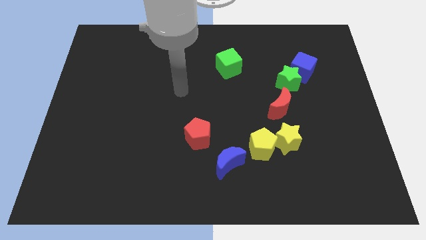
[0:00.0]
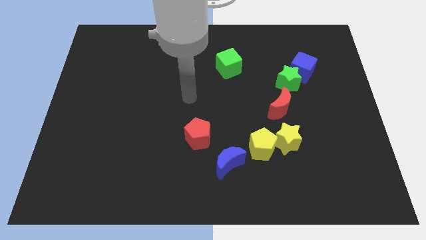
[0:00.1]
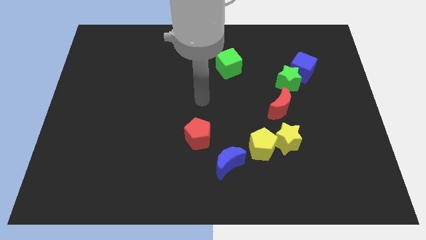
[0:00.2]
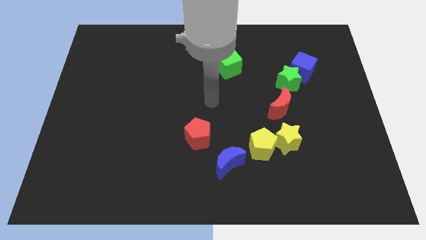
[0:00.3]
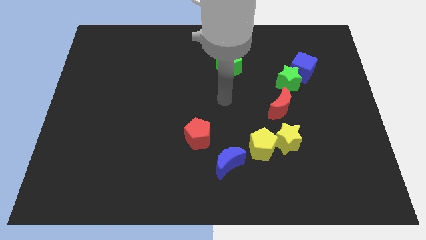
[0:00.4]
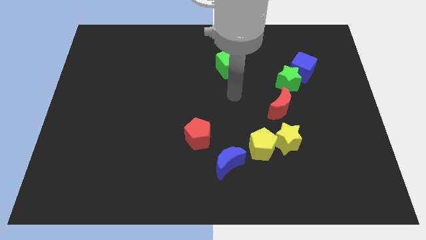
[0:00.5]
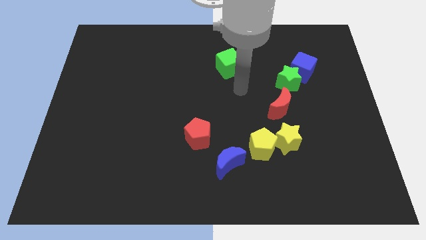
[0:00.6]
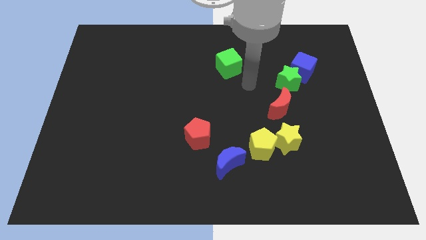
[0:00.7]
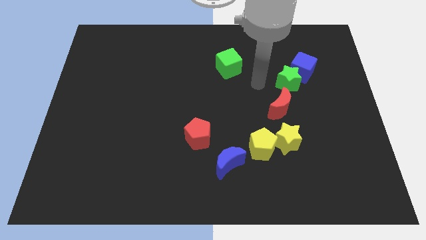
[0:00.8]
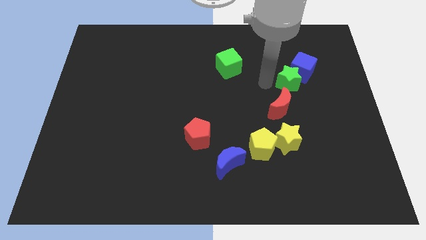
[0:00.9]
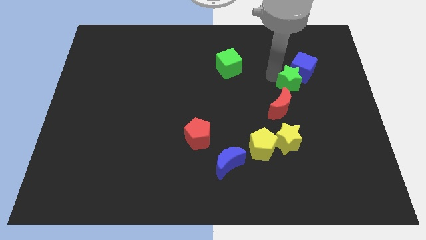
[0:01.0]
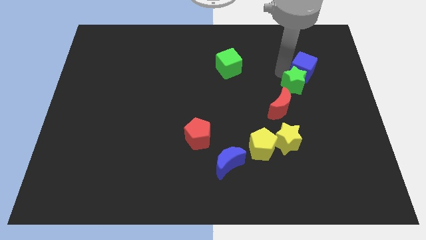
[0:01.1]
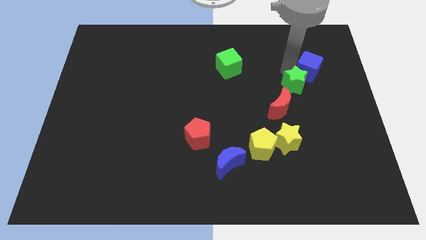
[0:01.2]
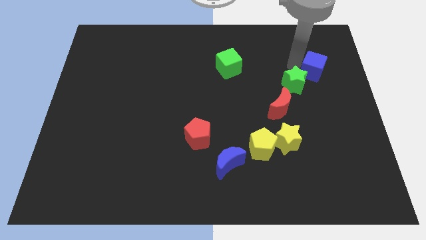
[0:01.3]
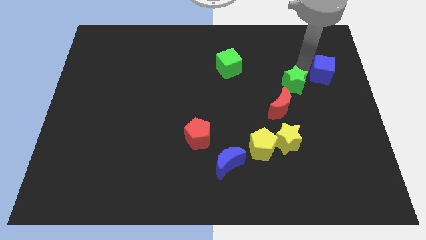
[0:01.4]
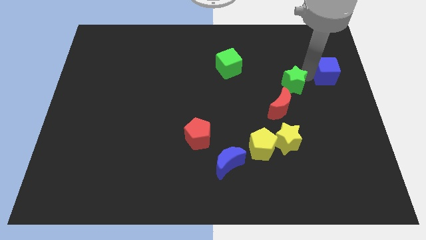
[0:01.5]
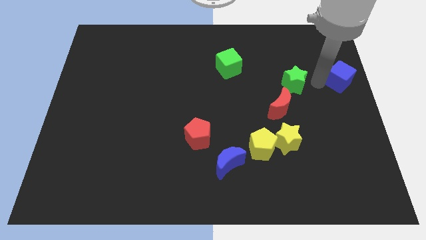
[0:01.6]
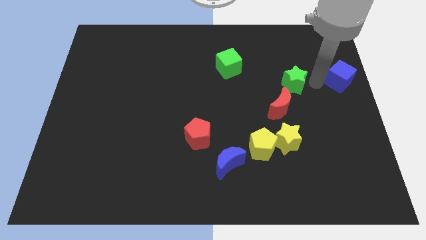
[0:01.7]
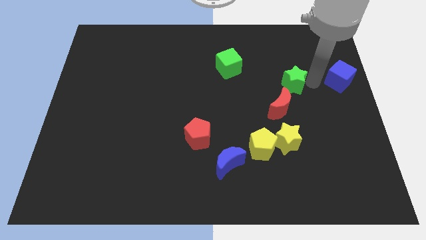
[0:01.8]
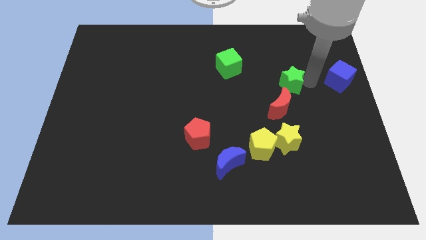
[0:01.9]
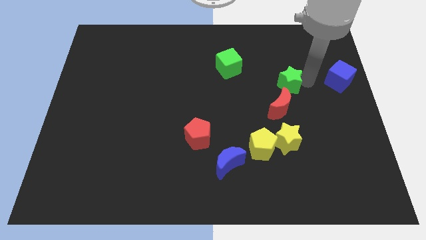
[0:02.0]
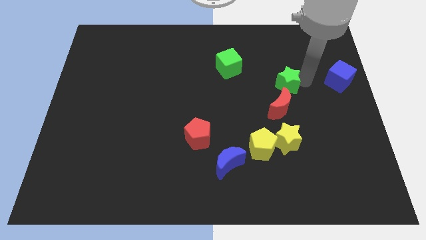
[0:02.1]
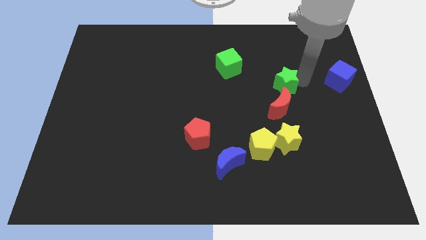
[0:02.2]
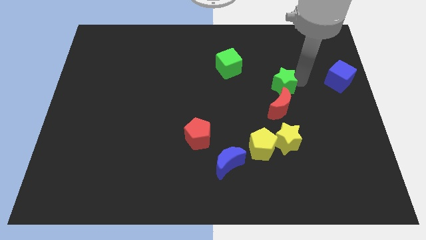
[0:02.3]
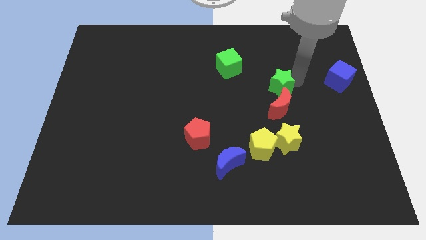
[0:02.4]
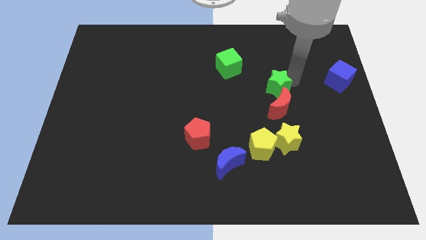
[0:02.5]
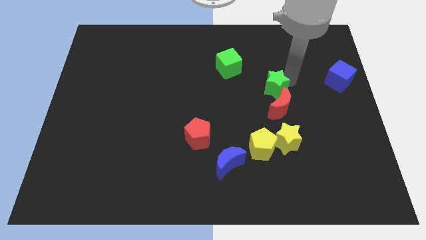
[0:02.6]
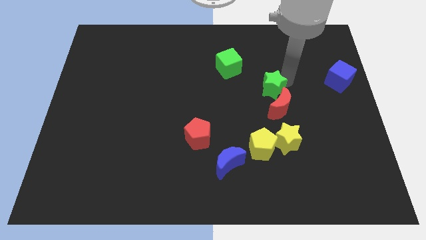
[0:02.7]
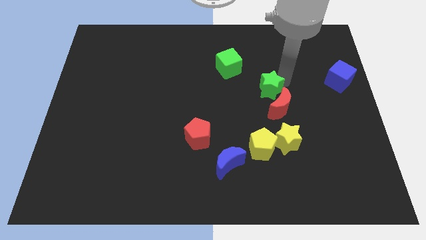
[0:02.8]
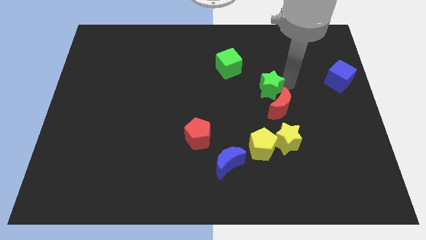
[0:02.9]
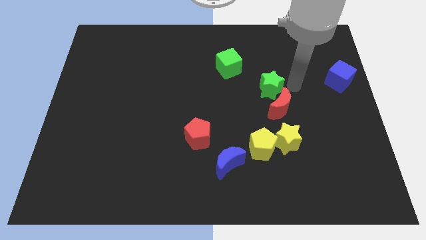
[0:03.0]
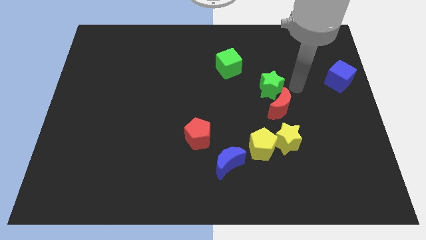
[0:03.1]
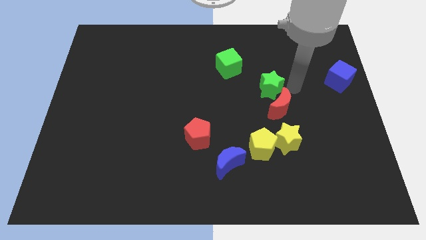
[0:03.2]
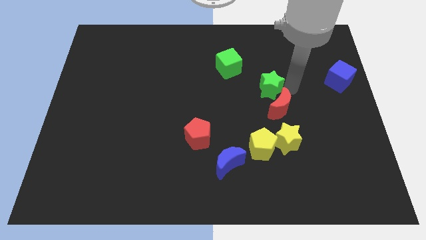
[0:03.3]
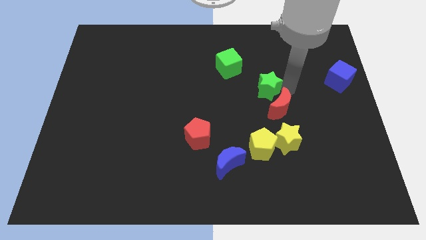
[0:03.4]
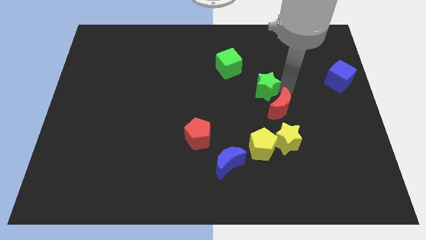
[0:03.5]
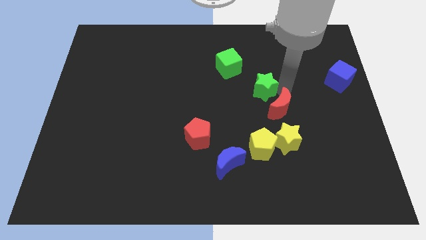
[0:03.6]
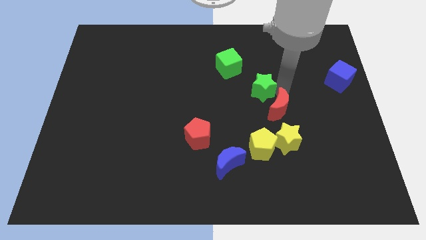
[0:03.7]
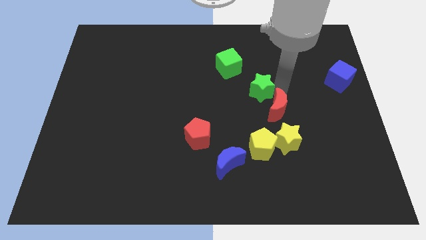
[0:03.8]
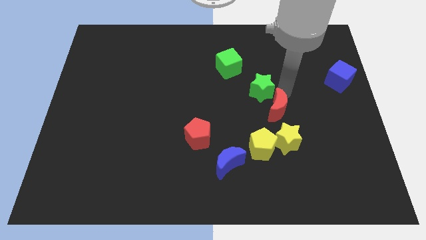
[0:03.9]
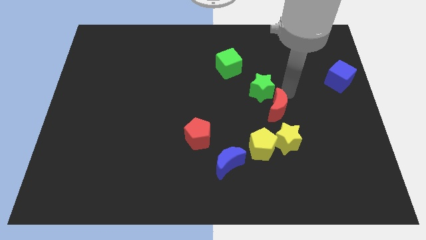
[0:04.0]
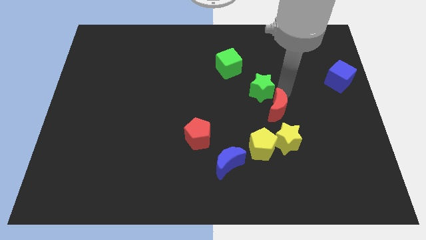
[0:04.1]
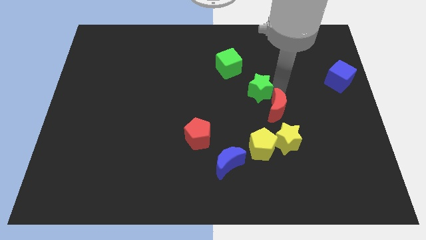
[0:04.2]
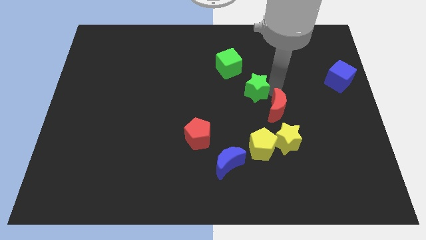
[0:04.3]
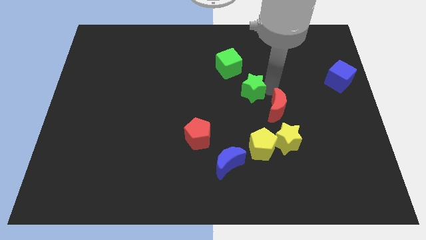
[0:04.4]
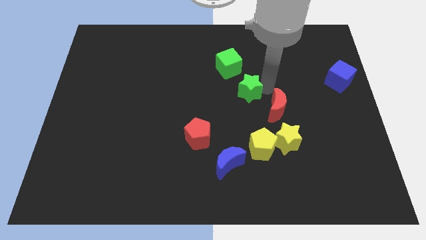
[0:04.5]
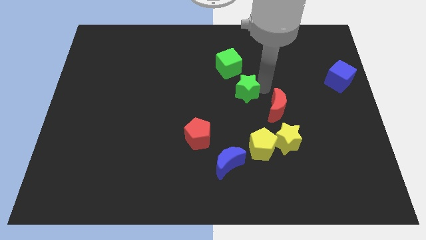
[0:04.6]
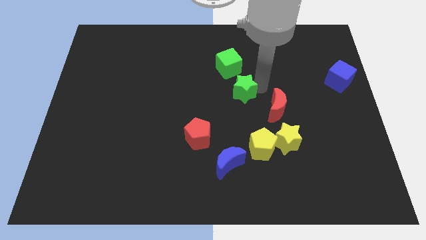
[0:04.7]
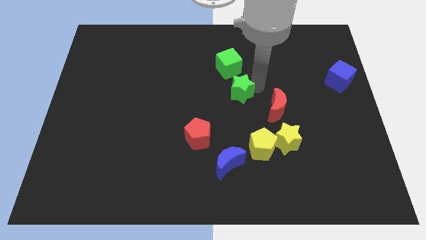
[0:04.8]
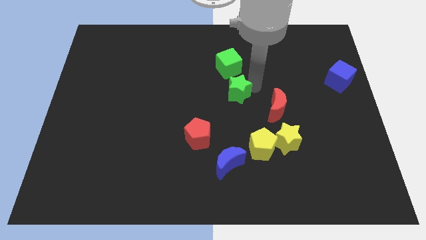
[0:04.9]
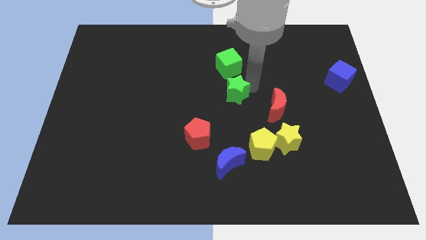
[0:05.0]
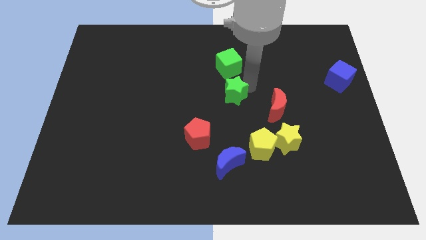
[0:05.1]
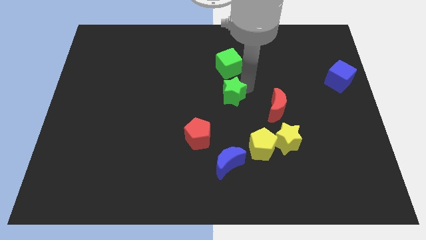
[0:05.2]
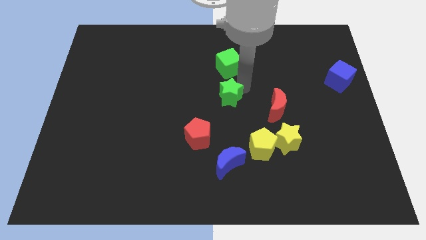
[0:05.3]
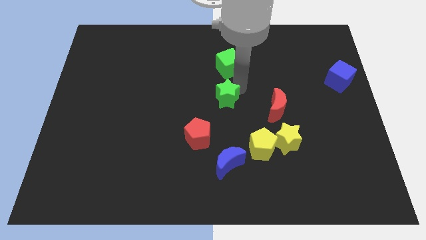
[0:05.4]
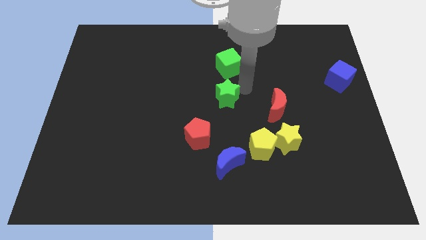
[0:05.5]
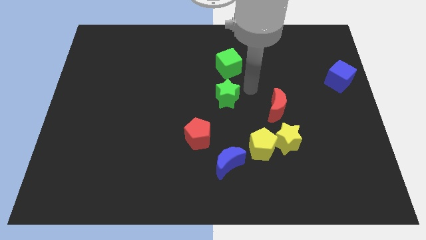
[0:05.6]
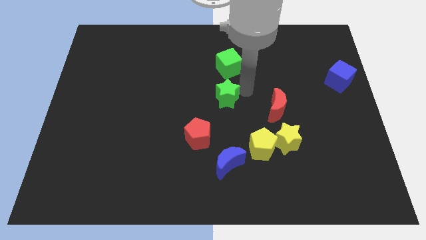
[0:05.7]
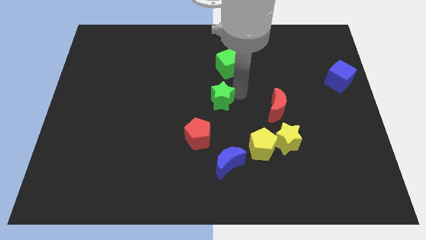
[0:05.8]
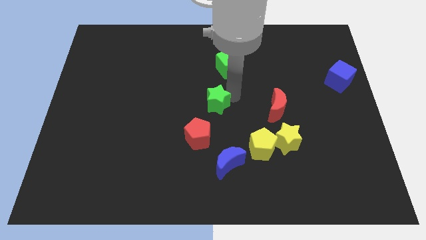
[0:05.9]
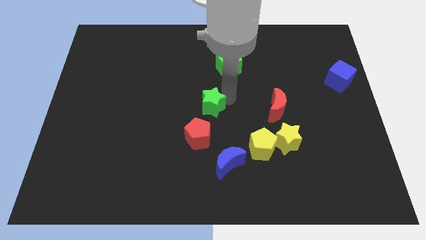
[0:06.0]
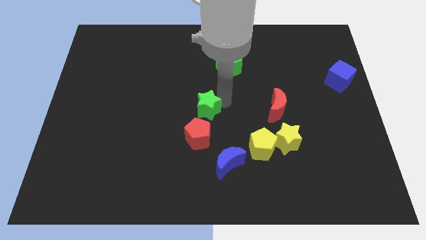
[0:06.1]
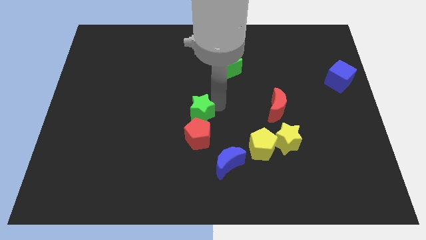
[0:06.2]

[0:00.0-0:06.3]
move the green star to the top left of the red pentagon

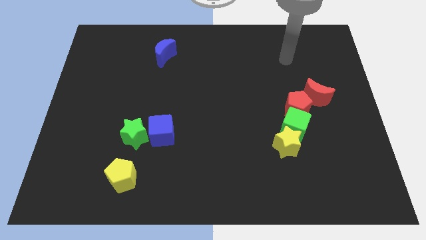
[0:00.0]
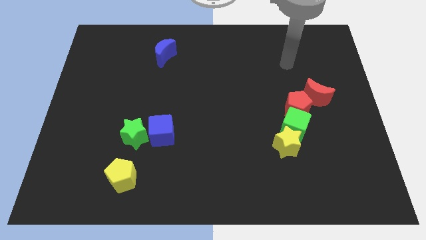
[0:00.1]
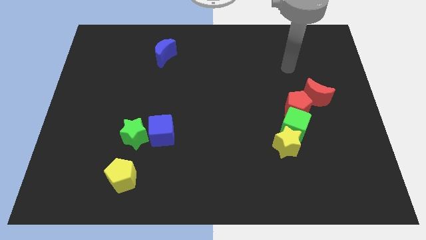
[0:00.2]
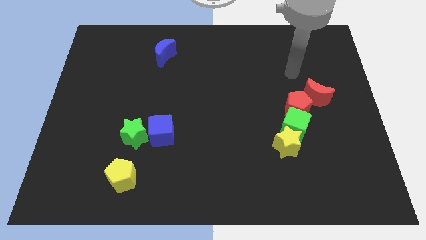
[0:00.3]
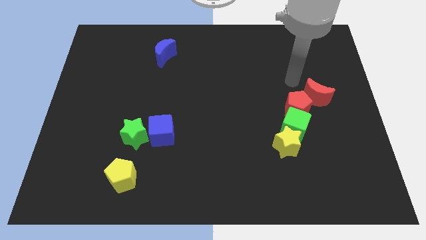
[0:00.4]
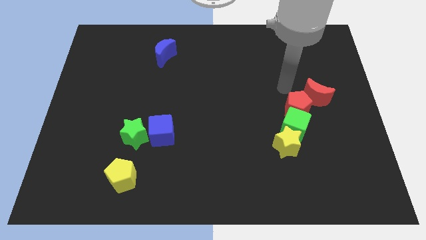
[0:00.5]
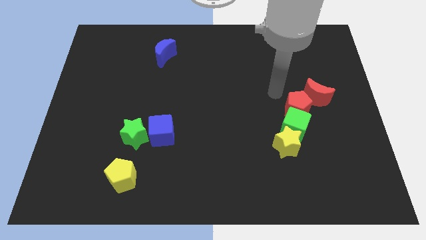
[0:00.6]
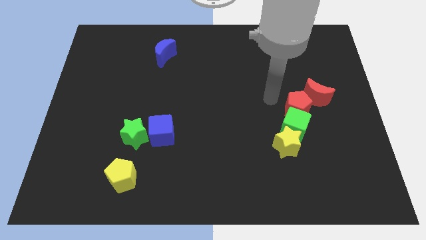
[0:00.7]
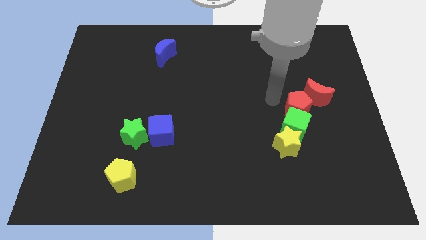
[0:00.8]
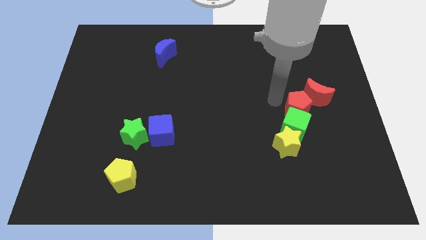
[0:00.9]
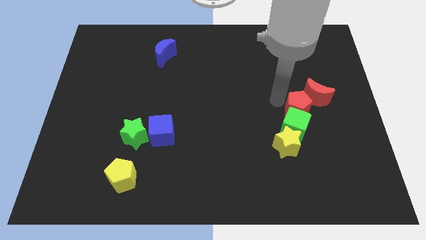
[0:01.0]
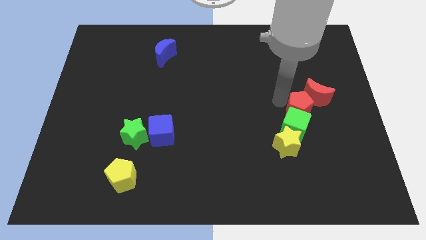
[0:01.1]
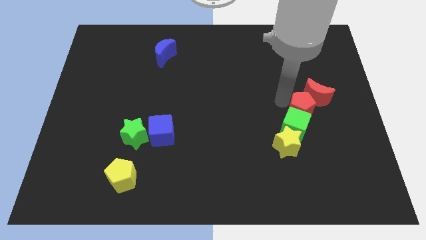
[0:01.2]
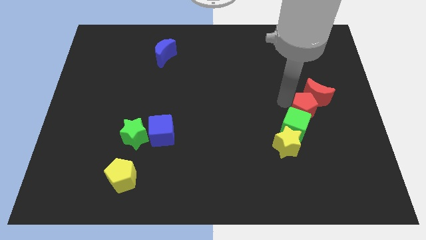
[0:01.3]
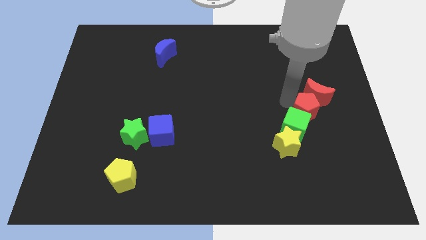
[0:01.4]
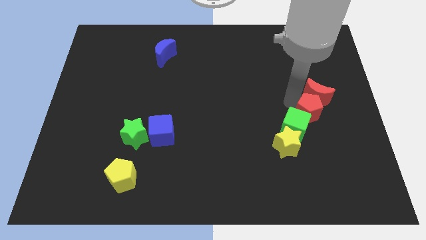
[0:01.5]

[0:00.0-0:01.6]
push the red pentagon right of the green cube

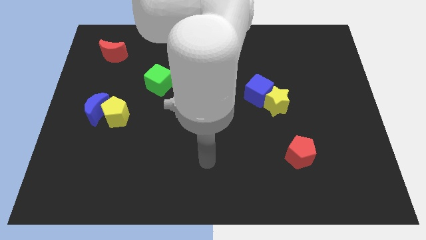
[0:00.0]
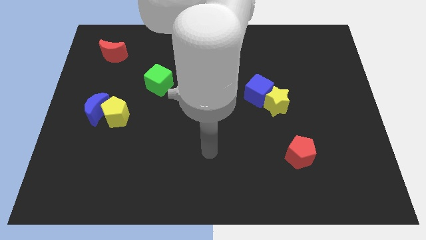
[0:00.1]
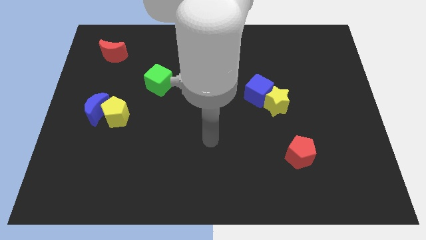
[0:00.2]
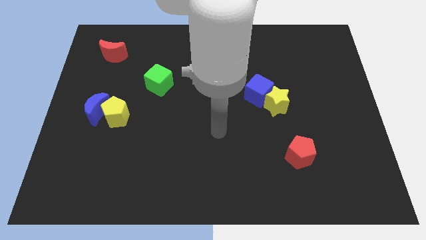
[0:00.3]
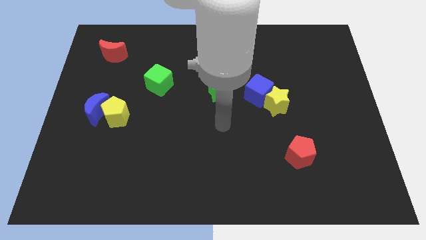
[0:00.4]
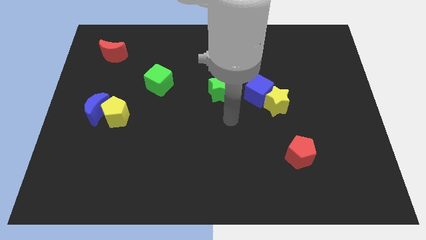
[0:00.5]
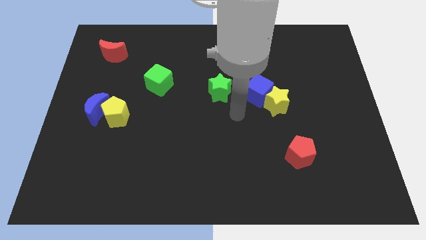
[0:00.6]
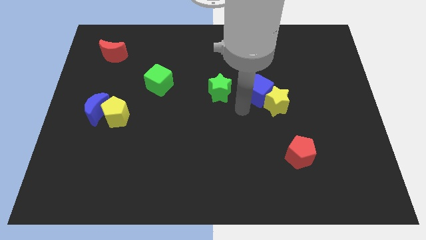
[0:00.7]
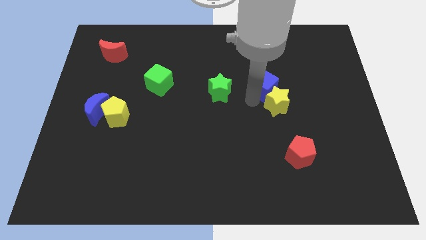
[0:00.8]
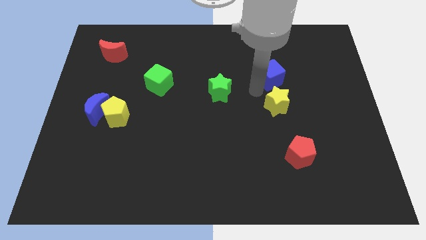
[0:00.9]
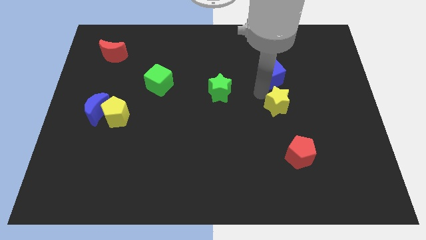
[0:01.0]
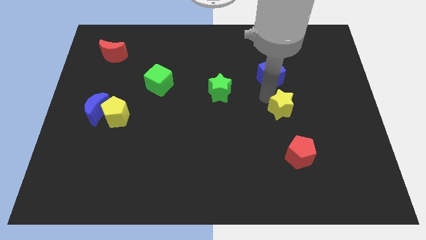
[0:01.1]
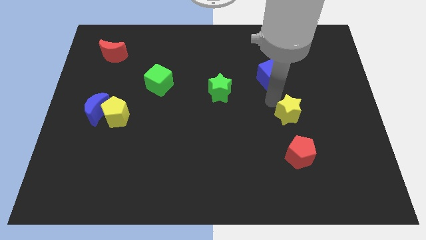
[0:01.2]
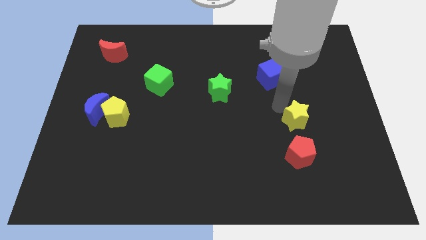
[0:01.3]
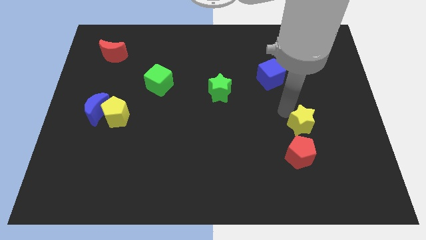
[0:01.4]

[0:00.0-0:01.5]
slide the yellow star to the top right side of the red pentagon
